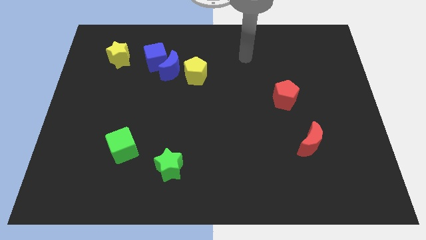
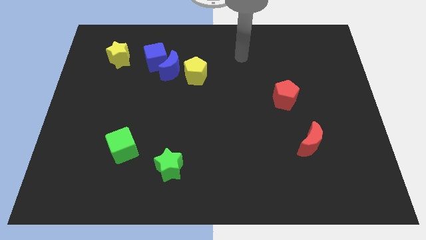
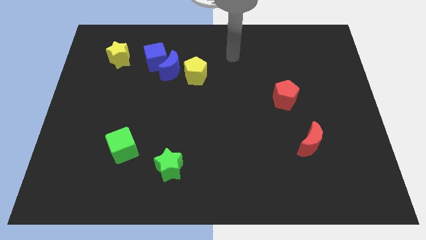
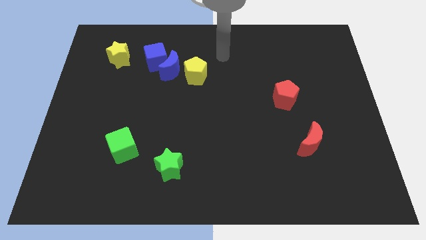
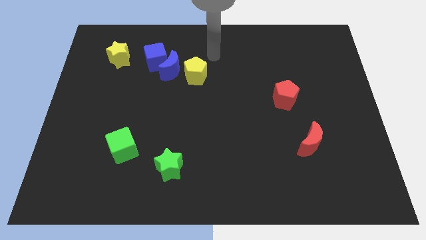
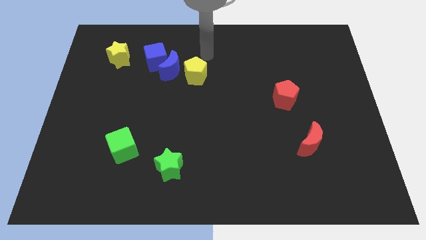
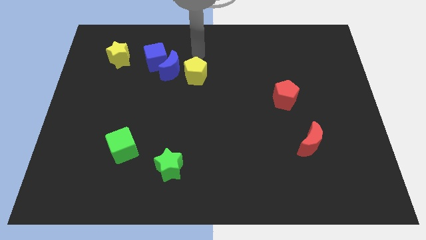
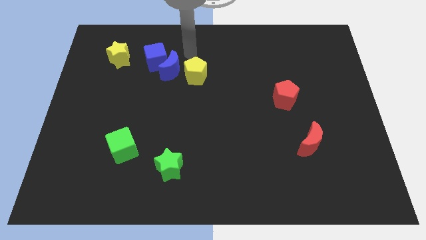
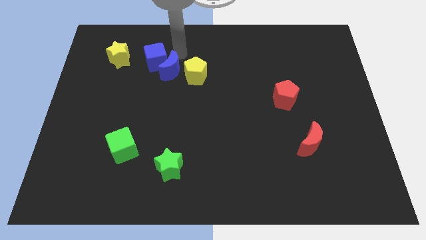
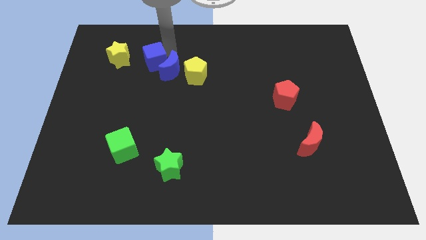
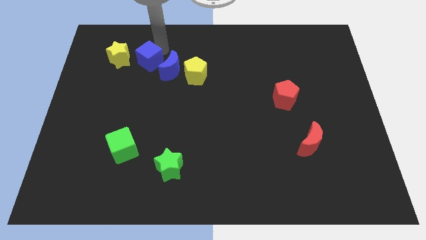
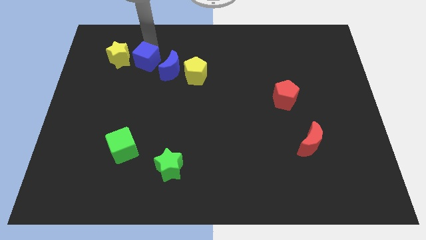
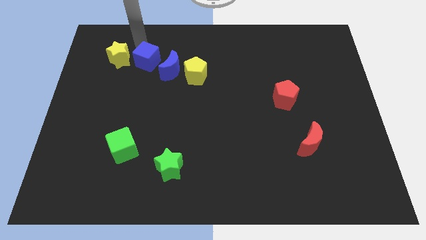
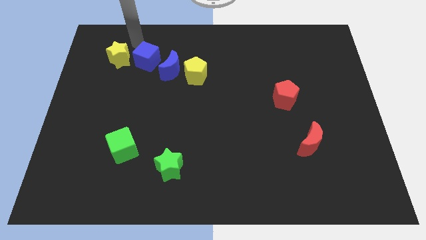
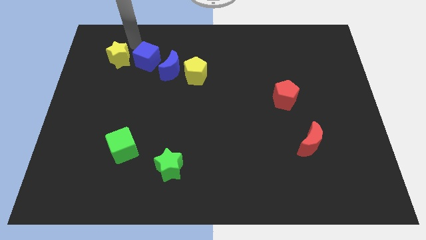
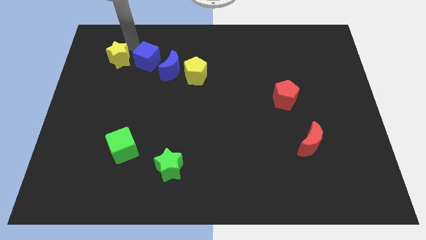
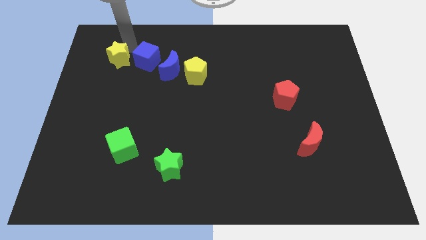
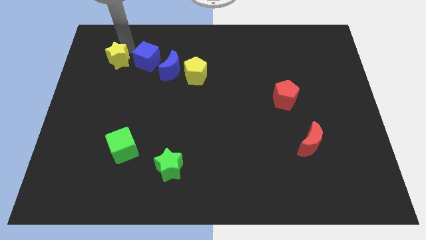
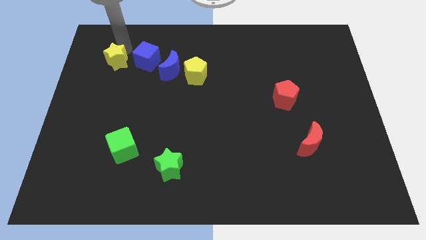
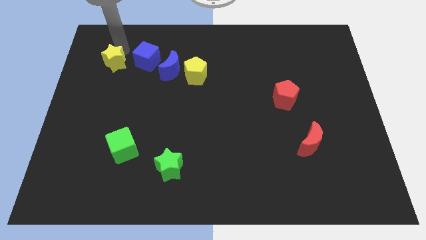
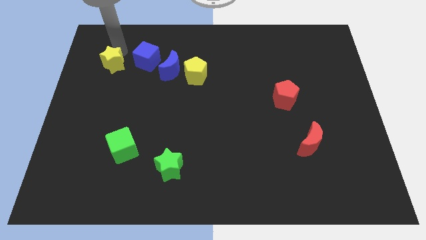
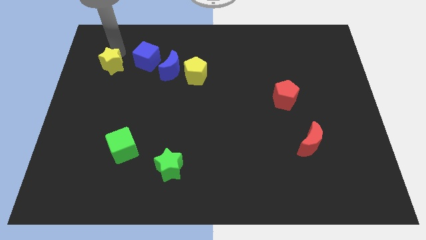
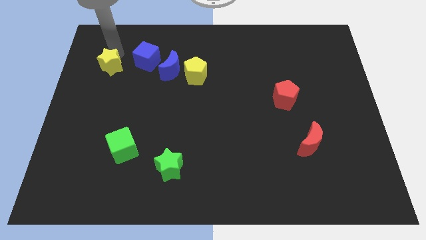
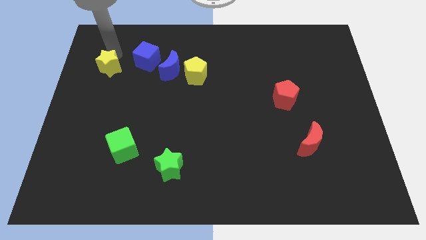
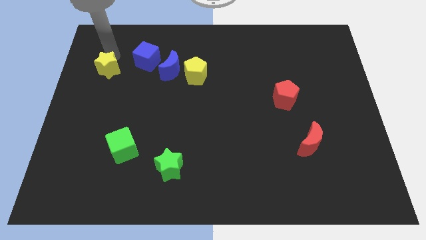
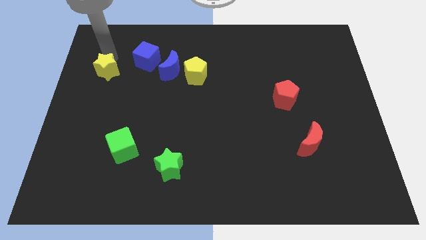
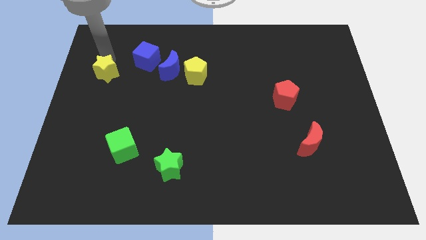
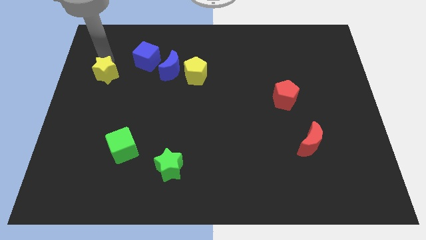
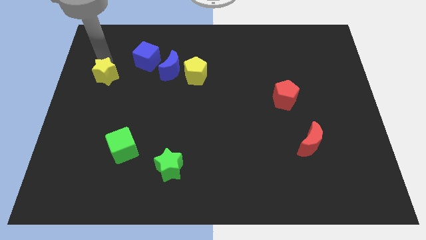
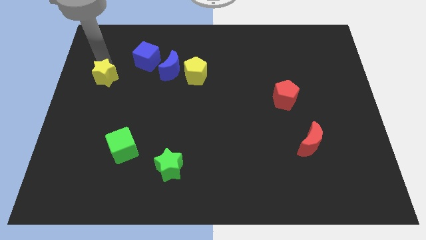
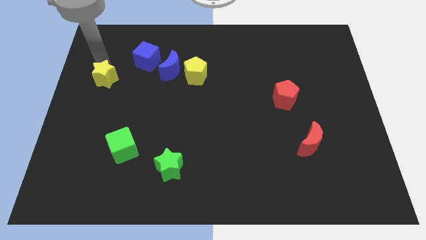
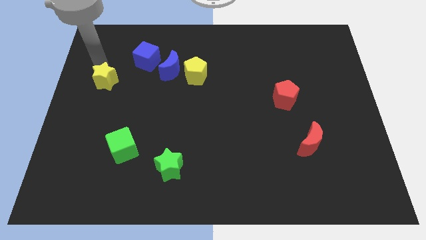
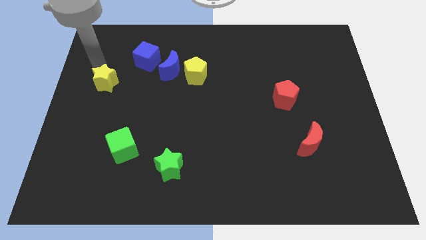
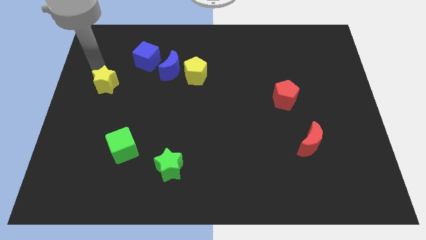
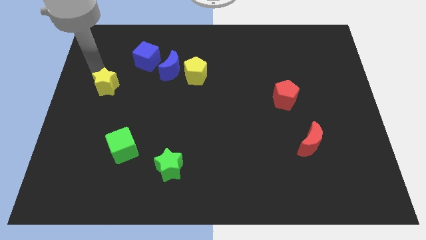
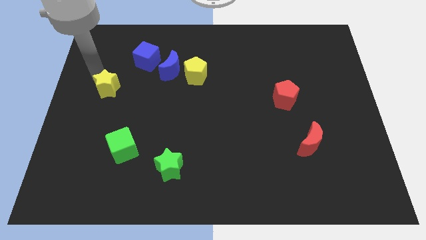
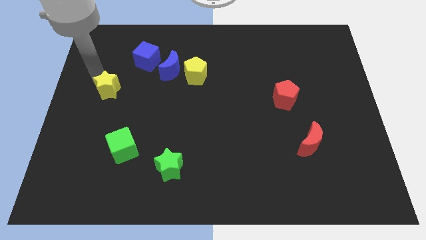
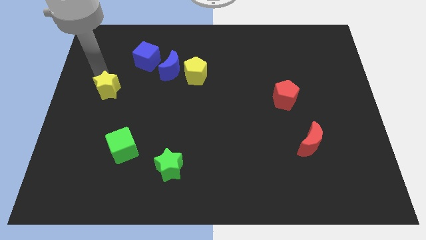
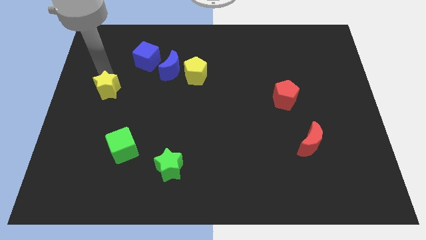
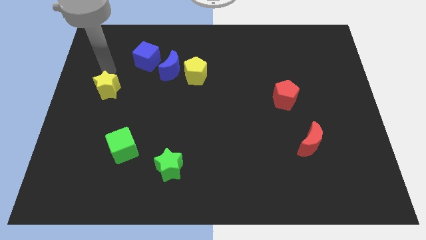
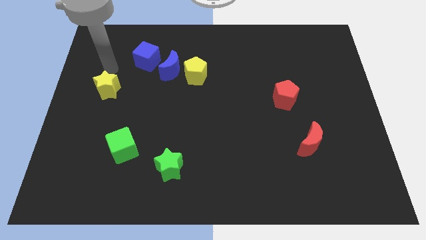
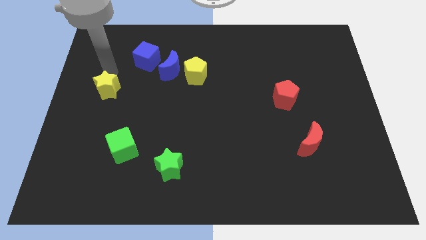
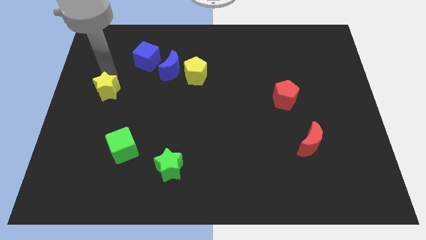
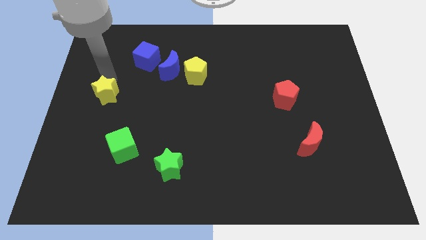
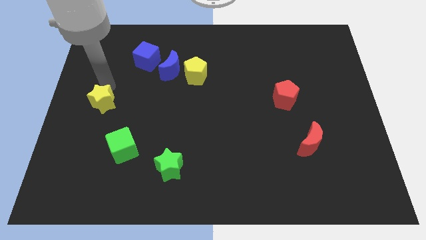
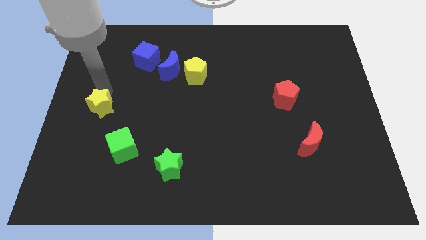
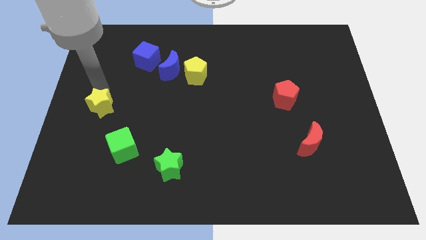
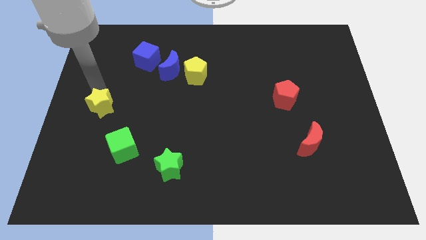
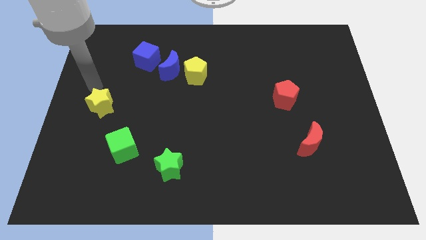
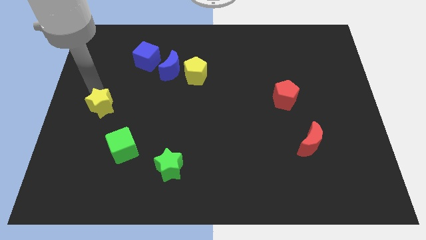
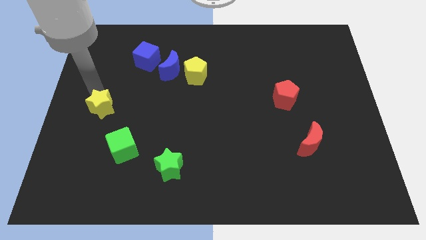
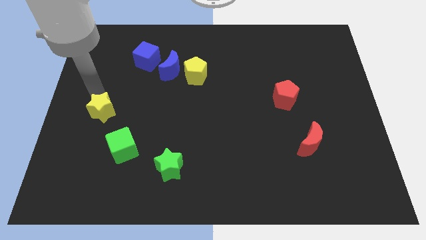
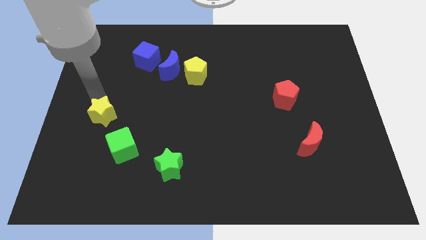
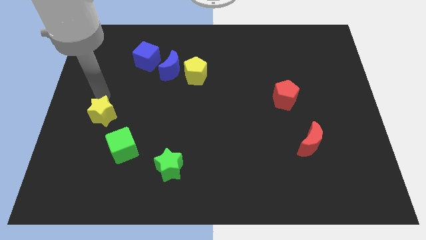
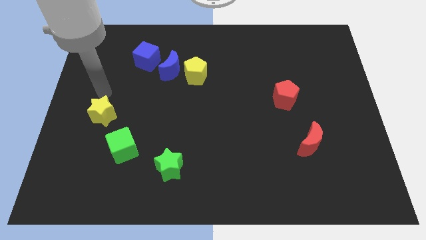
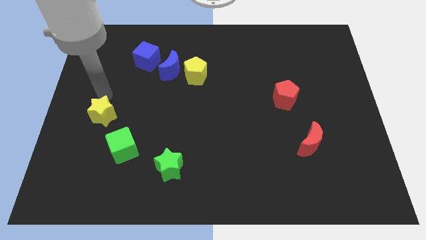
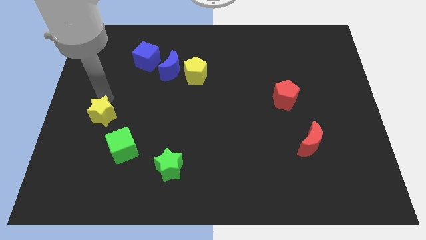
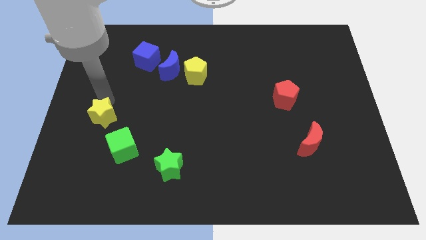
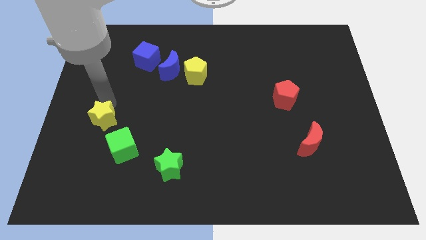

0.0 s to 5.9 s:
slide the yellow star downwards

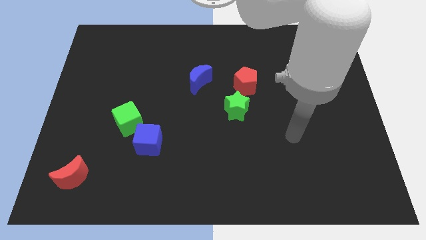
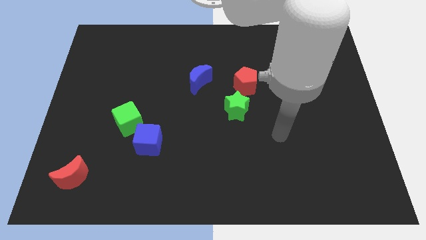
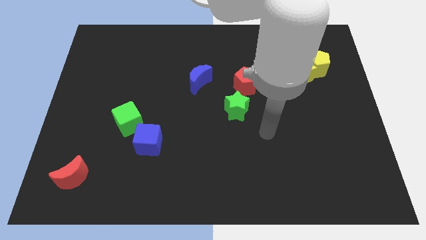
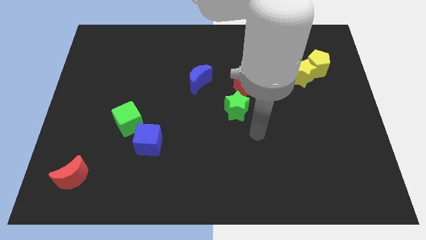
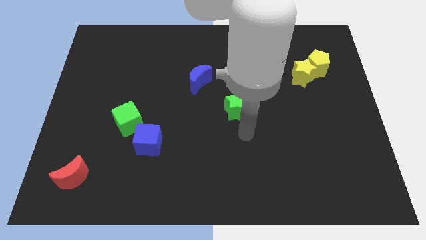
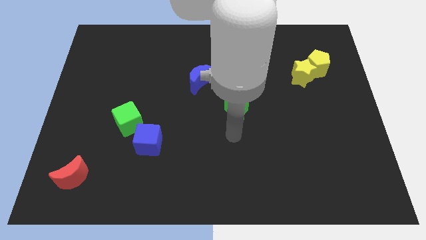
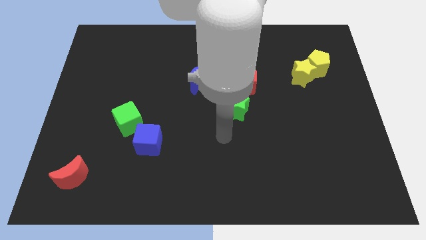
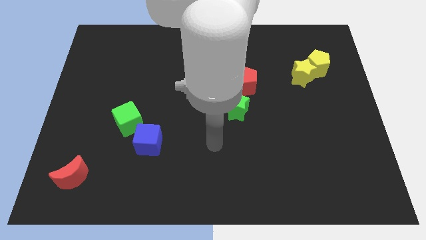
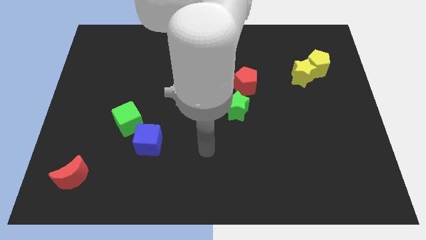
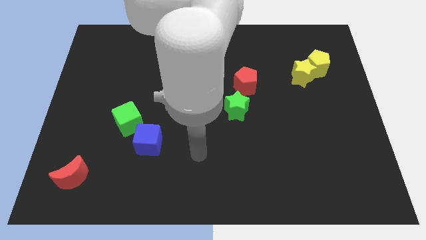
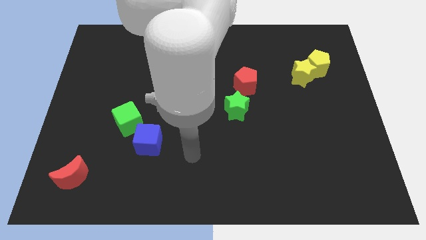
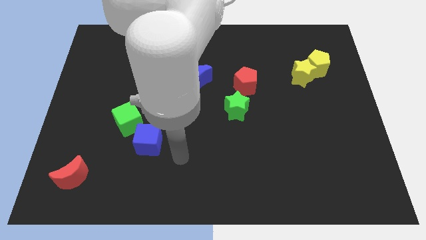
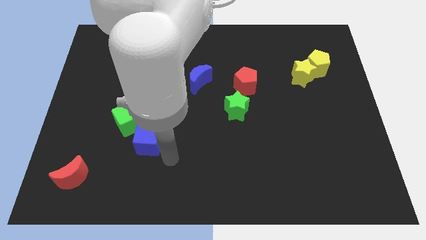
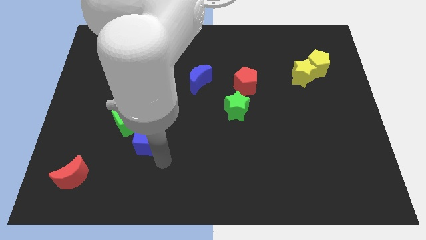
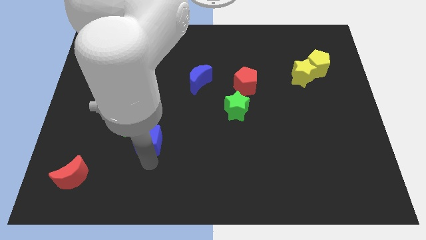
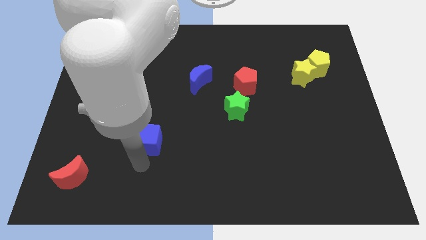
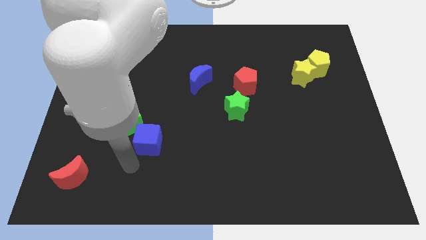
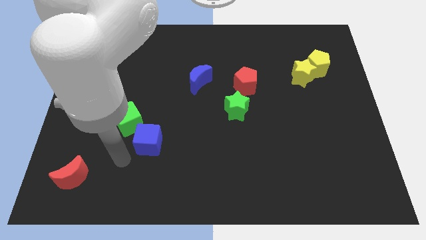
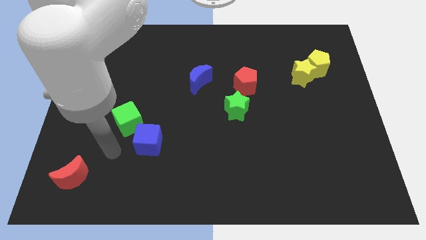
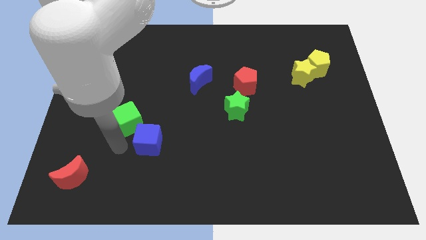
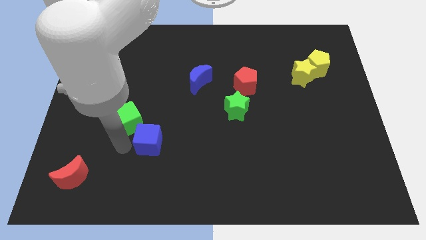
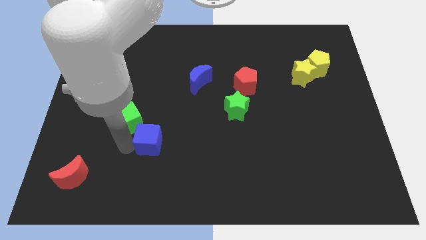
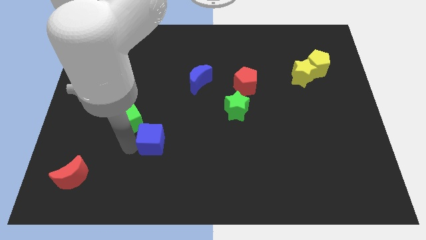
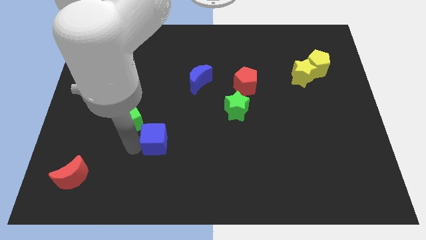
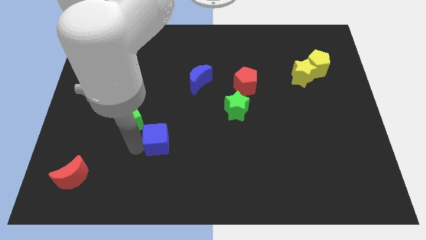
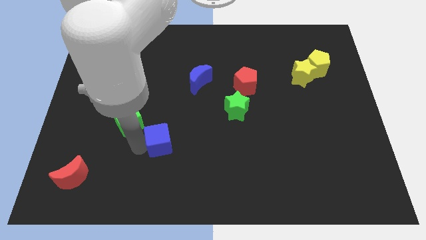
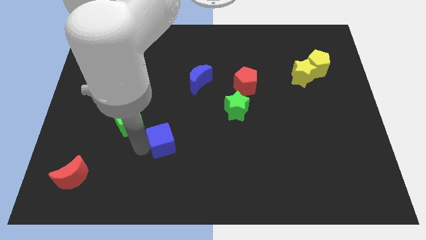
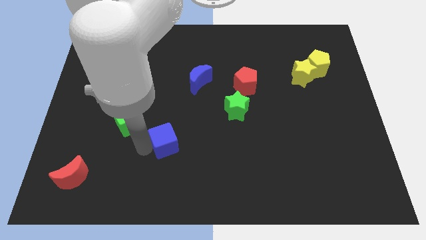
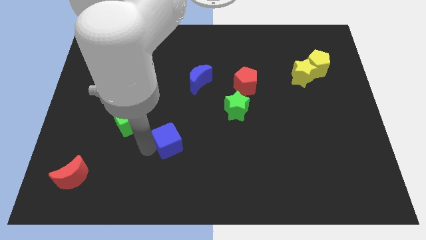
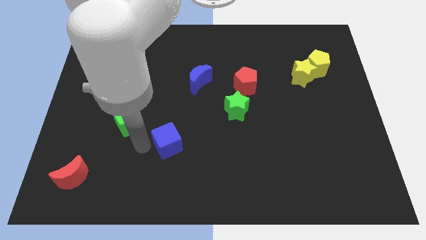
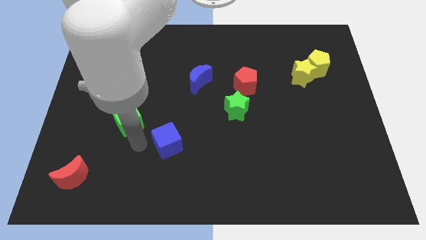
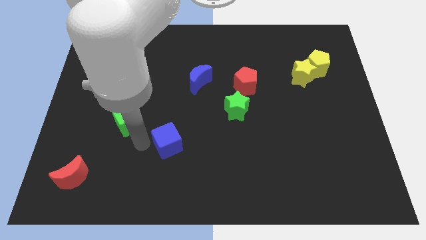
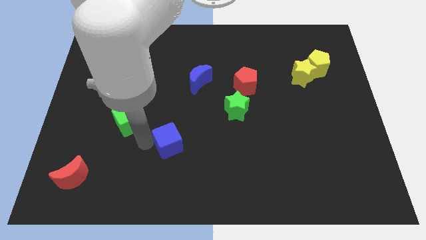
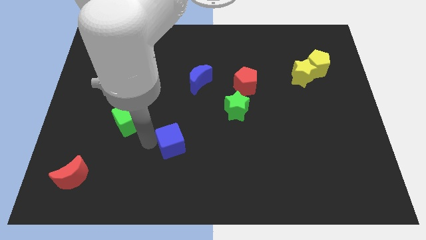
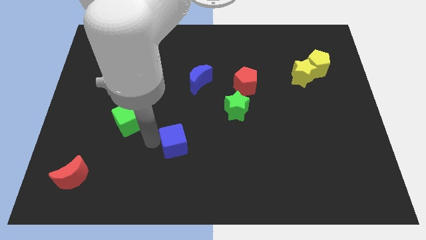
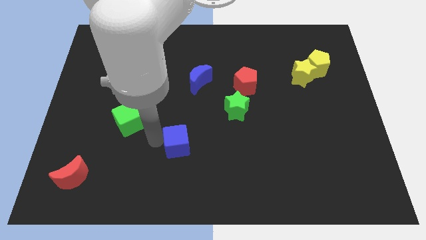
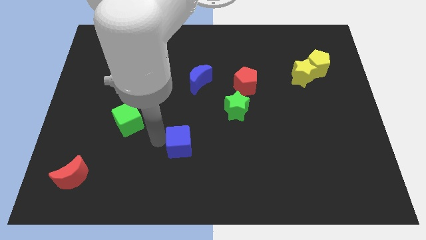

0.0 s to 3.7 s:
slightly move the blue cube to the right
